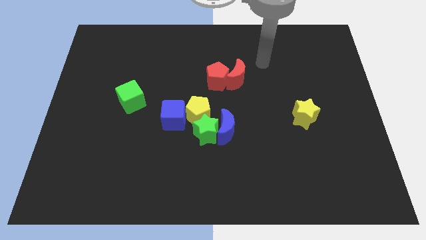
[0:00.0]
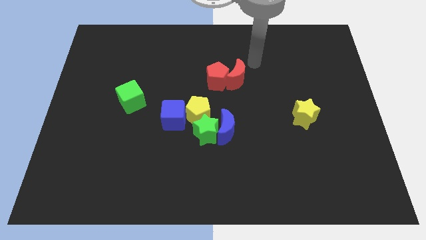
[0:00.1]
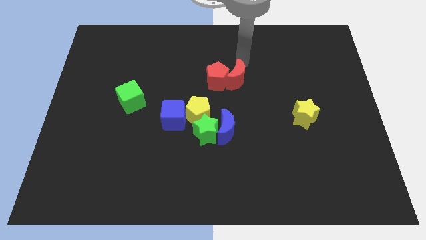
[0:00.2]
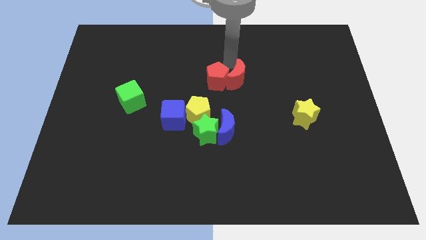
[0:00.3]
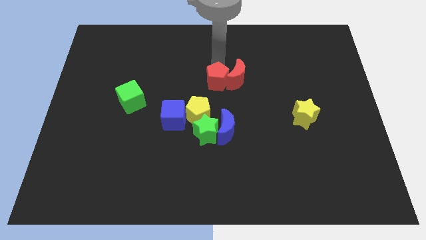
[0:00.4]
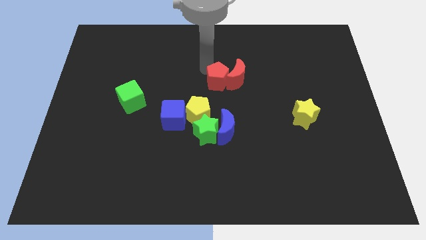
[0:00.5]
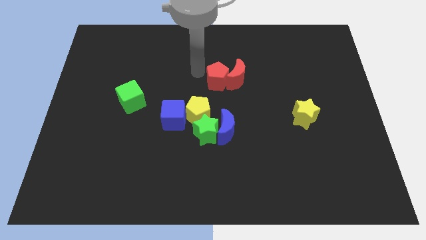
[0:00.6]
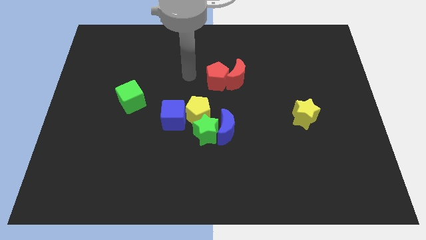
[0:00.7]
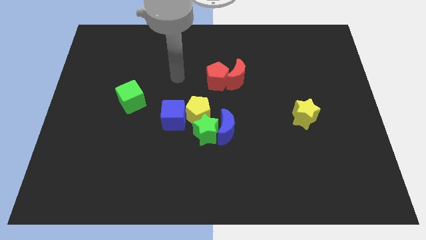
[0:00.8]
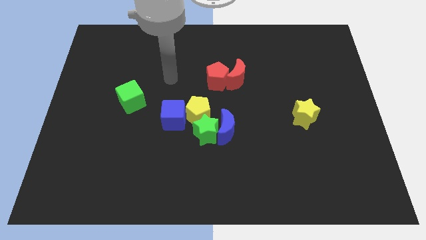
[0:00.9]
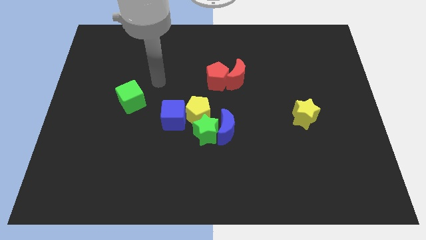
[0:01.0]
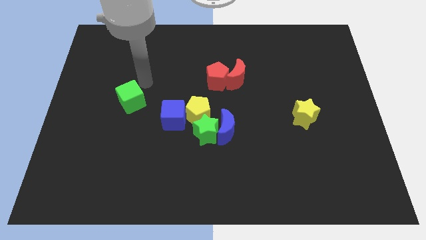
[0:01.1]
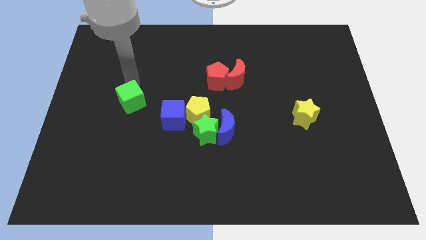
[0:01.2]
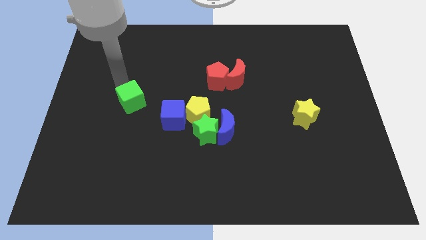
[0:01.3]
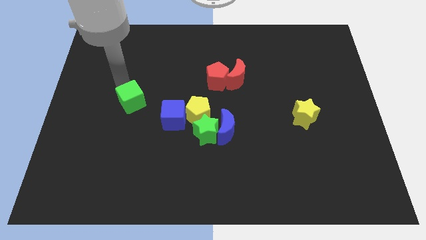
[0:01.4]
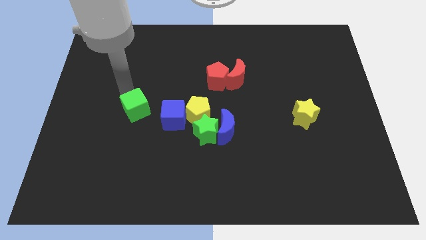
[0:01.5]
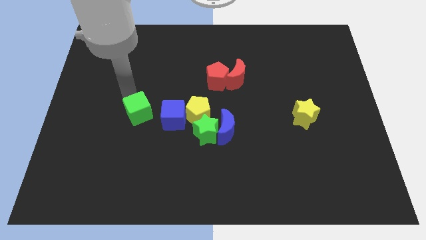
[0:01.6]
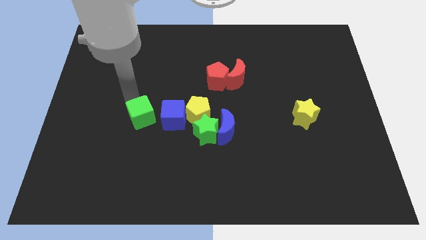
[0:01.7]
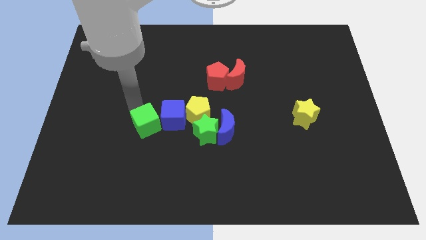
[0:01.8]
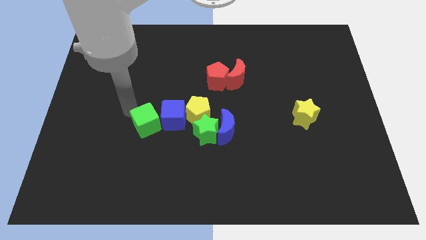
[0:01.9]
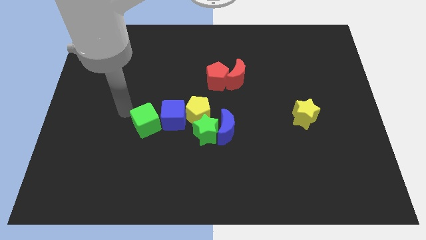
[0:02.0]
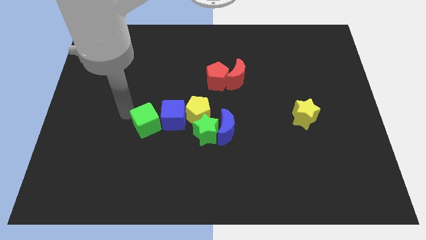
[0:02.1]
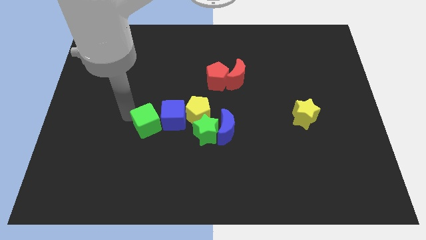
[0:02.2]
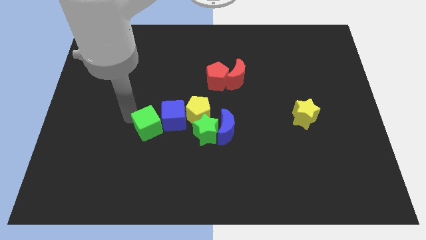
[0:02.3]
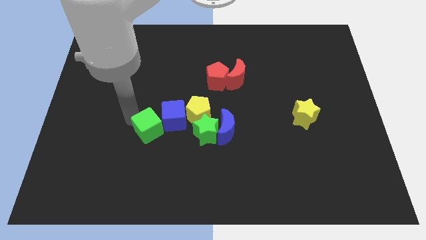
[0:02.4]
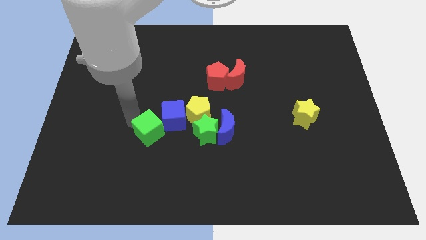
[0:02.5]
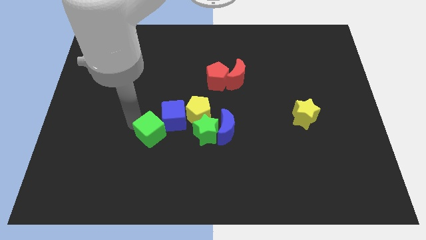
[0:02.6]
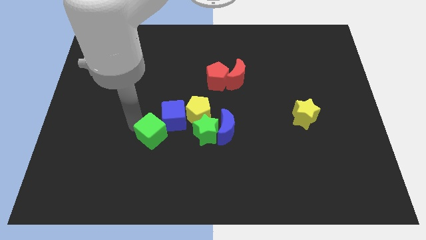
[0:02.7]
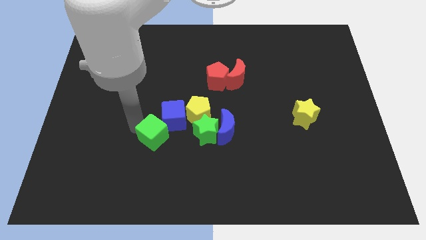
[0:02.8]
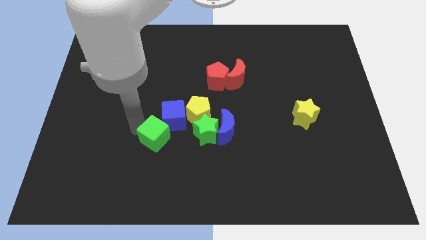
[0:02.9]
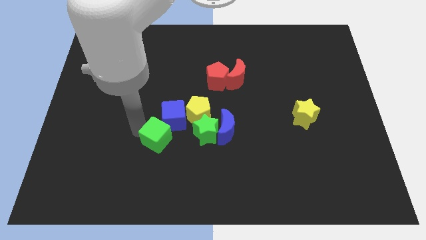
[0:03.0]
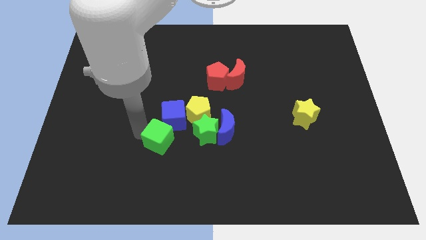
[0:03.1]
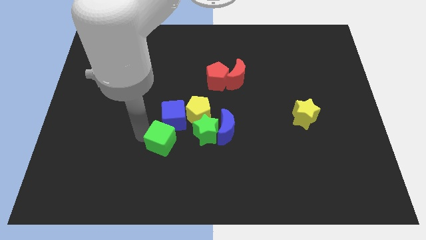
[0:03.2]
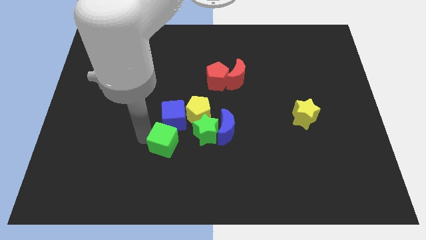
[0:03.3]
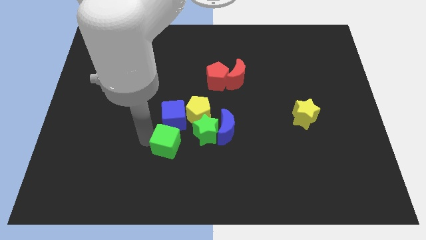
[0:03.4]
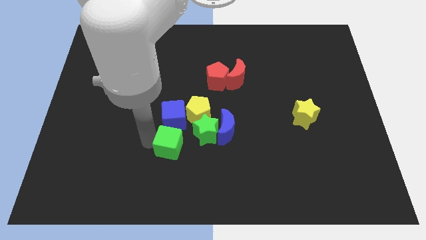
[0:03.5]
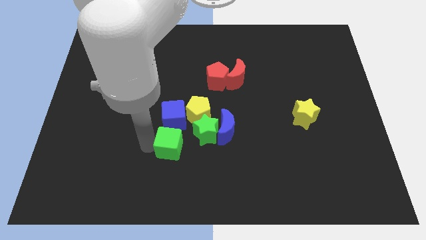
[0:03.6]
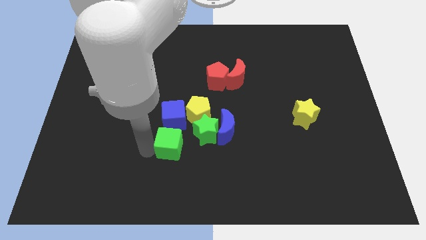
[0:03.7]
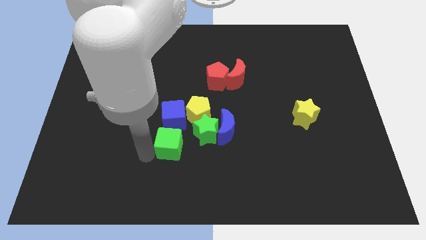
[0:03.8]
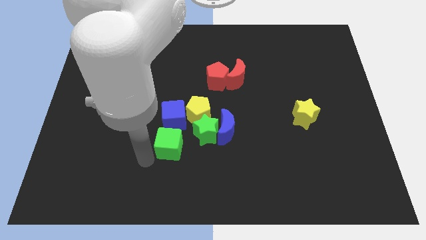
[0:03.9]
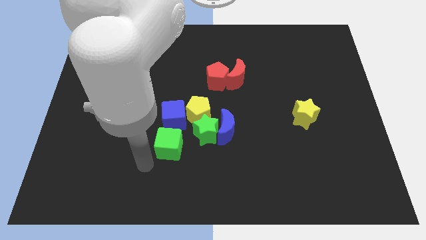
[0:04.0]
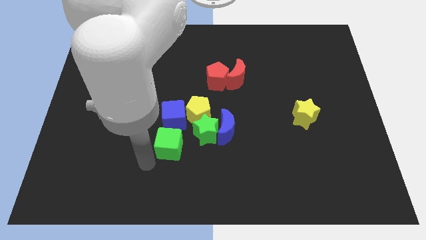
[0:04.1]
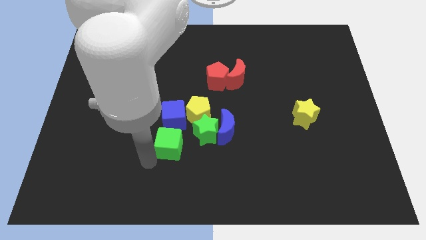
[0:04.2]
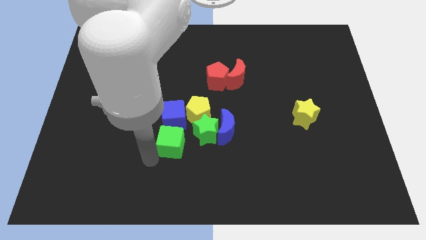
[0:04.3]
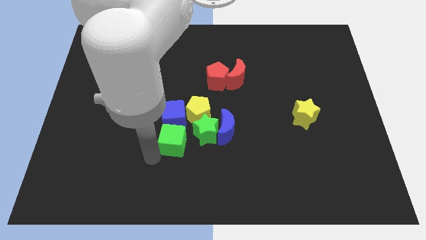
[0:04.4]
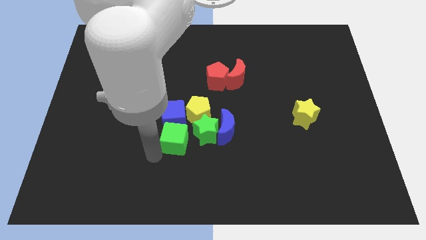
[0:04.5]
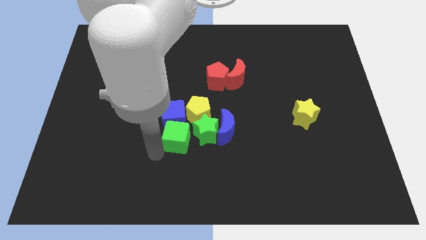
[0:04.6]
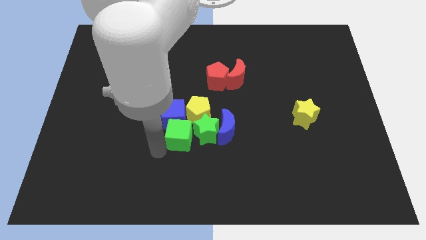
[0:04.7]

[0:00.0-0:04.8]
put the green cube to the green star

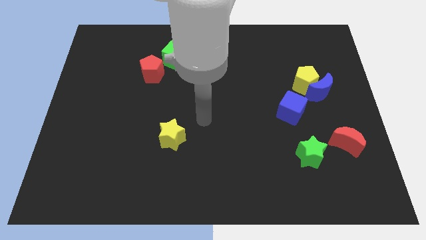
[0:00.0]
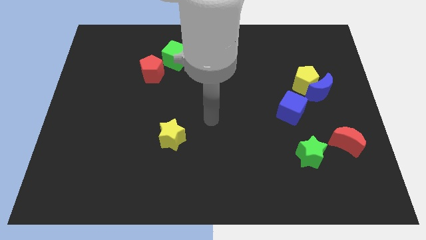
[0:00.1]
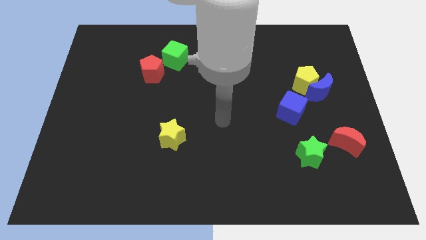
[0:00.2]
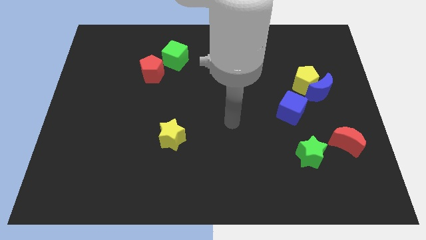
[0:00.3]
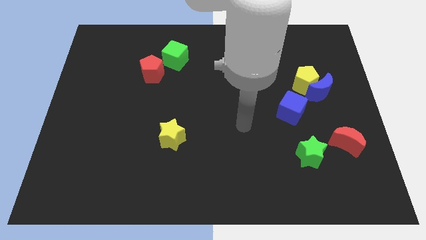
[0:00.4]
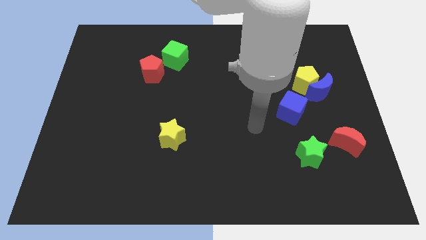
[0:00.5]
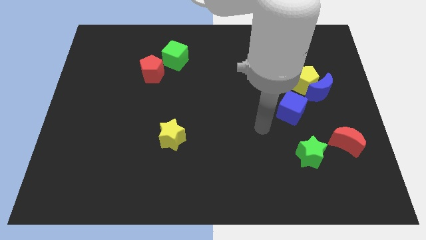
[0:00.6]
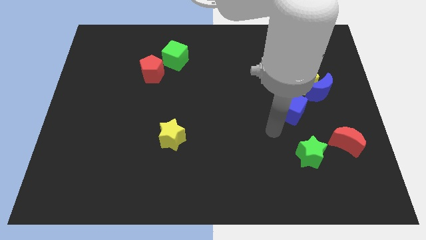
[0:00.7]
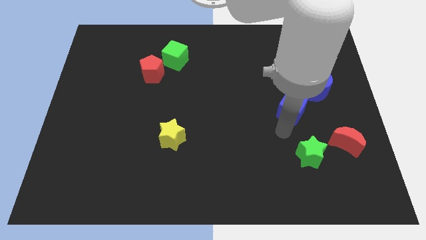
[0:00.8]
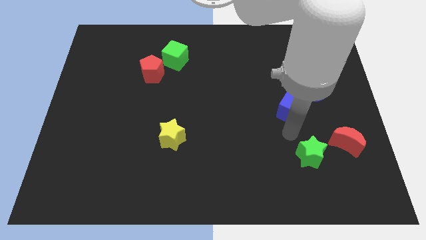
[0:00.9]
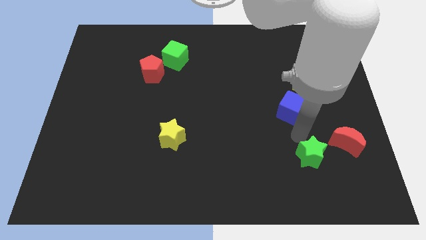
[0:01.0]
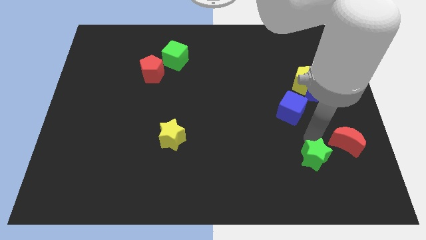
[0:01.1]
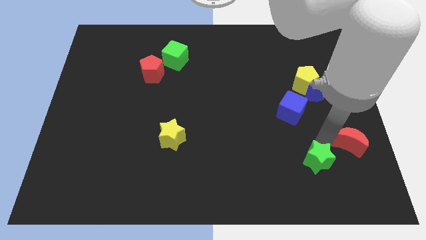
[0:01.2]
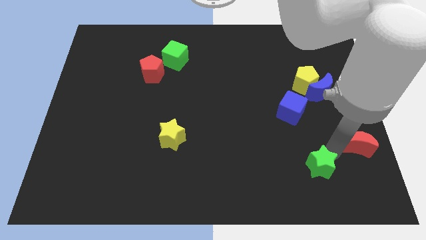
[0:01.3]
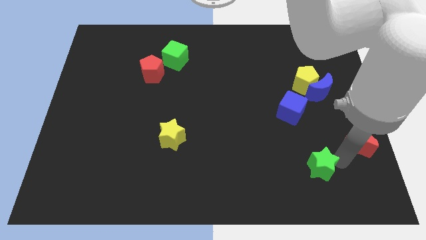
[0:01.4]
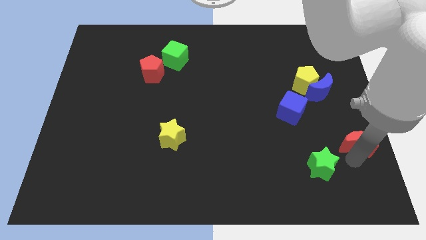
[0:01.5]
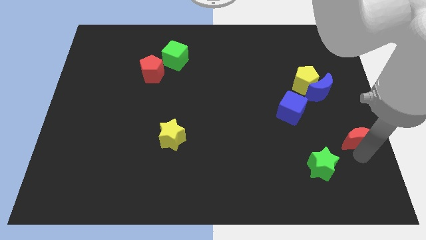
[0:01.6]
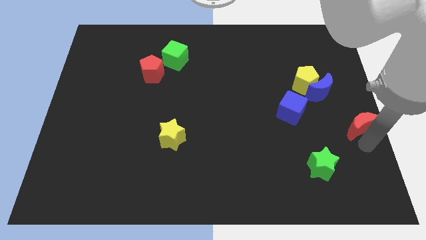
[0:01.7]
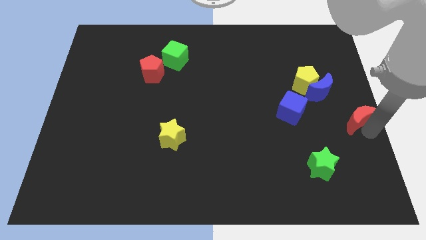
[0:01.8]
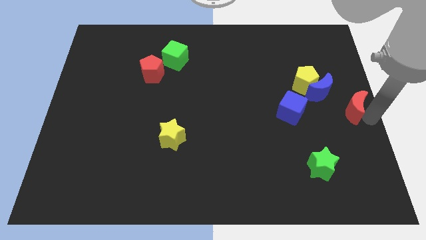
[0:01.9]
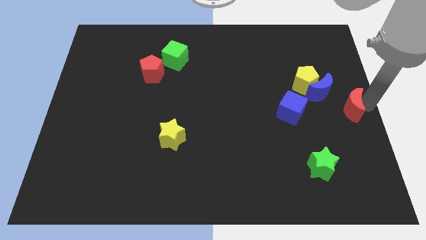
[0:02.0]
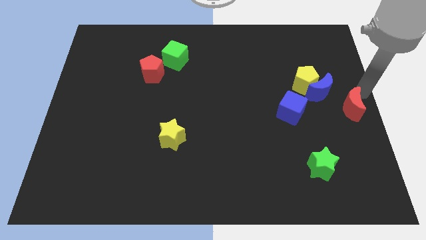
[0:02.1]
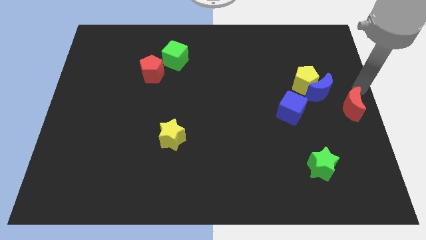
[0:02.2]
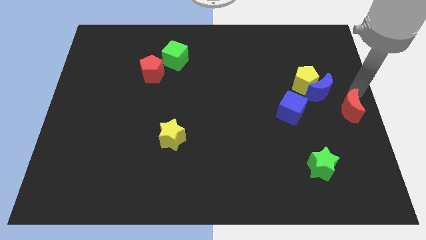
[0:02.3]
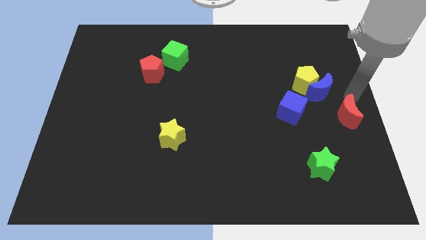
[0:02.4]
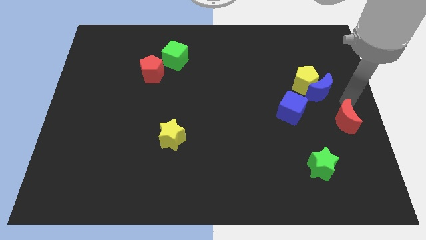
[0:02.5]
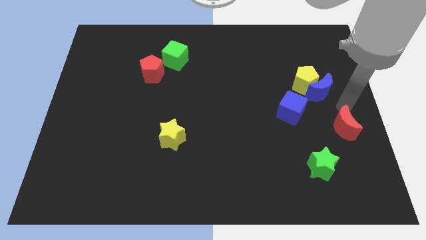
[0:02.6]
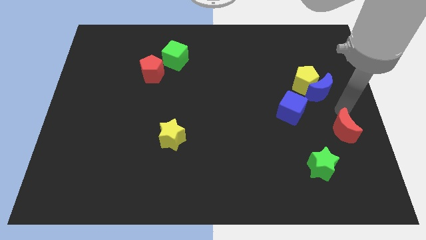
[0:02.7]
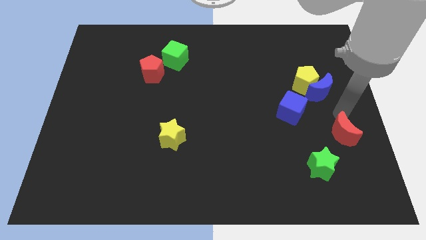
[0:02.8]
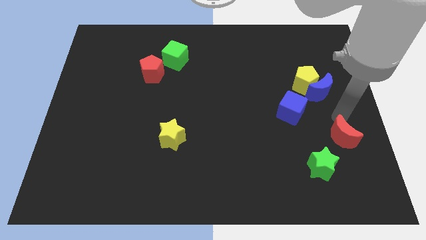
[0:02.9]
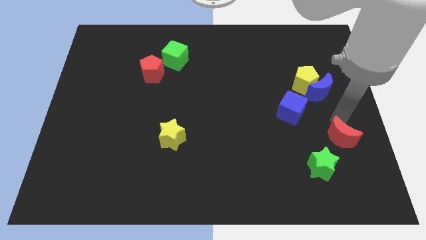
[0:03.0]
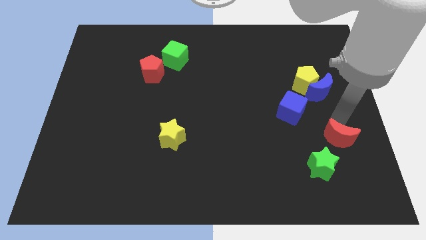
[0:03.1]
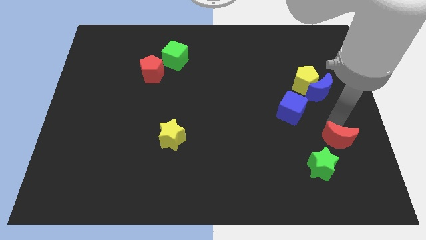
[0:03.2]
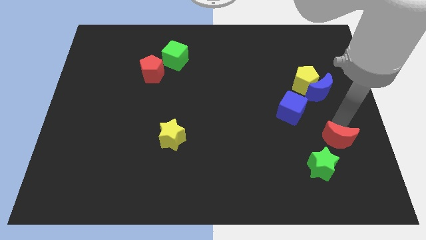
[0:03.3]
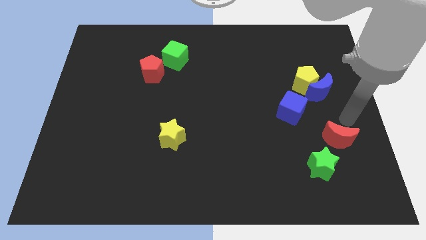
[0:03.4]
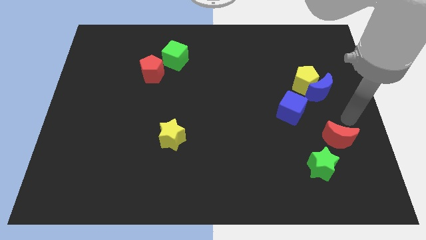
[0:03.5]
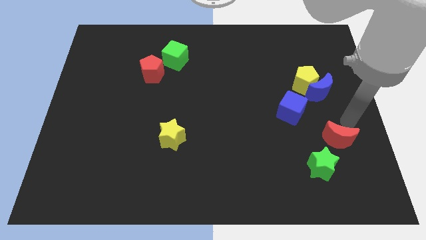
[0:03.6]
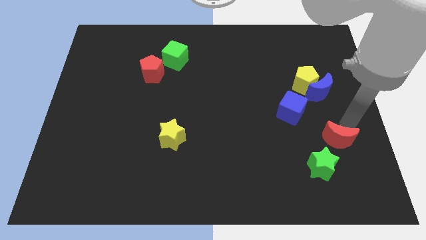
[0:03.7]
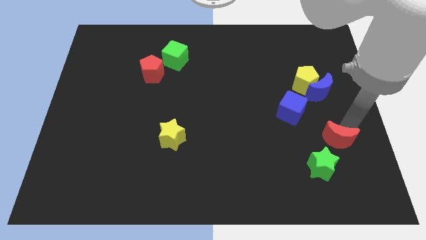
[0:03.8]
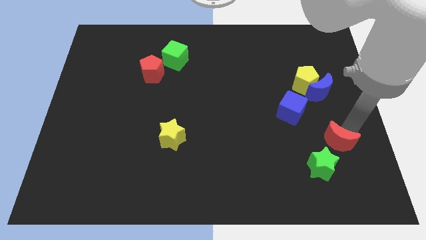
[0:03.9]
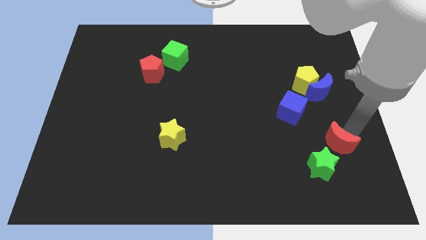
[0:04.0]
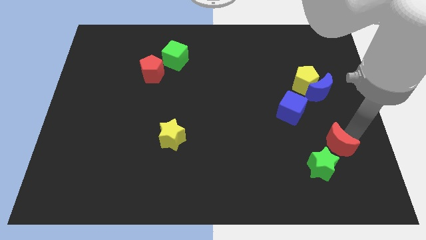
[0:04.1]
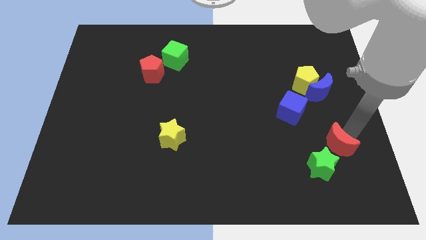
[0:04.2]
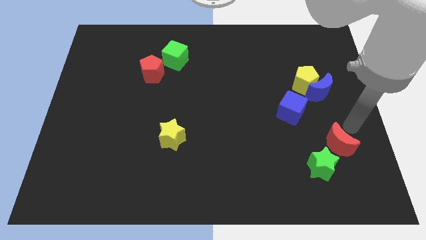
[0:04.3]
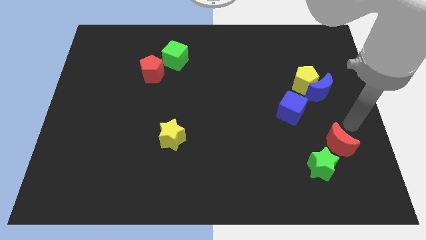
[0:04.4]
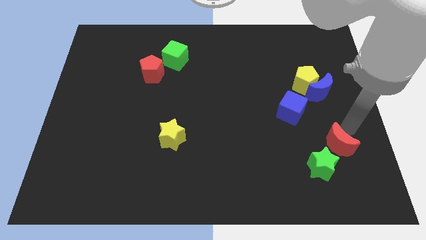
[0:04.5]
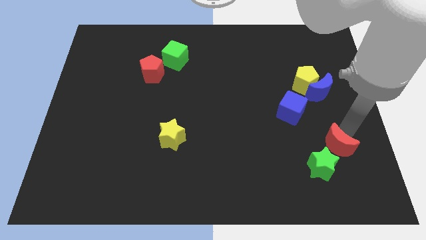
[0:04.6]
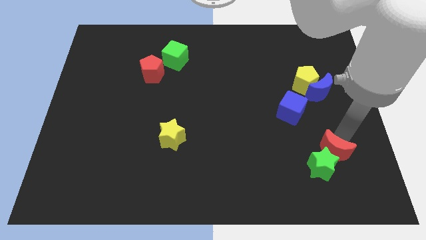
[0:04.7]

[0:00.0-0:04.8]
push the red moon next to the green star
